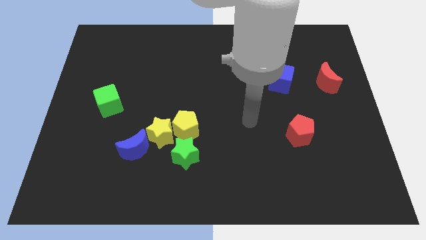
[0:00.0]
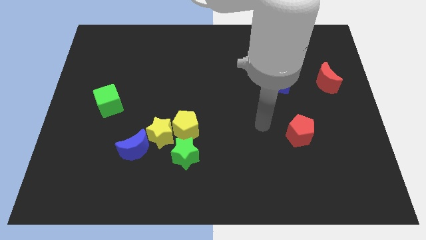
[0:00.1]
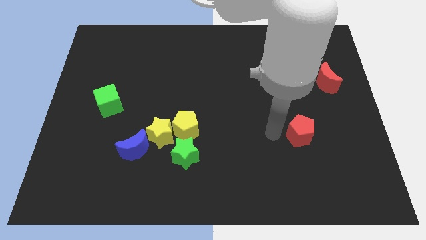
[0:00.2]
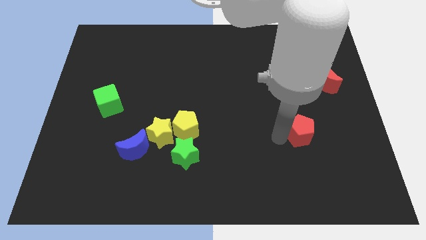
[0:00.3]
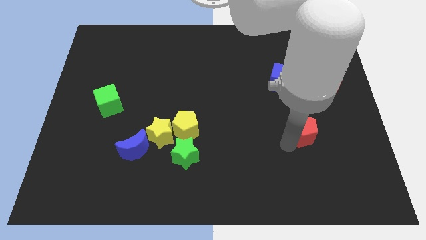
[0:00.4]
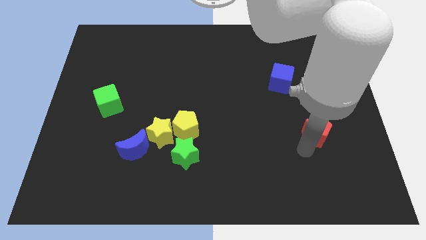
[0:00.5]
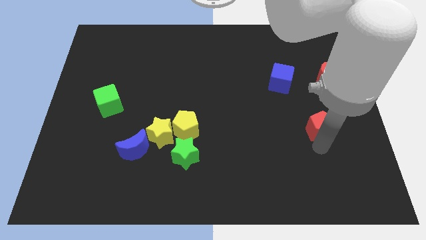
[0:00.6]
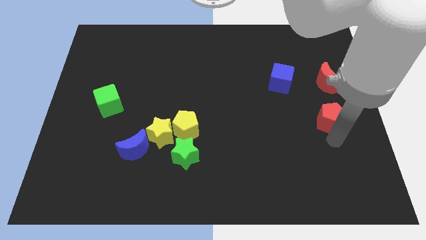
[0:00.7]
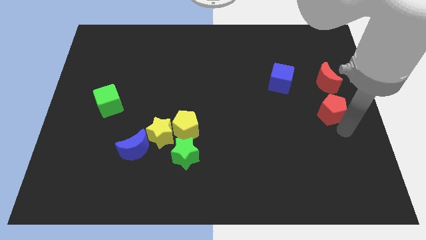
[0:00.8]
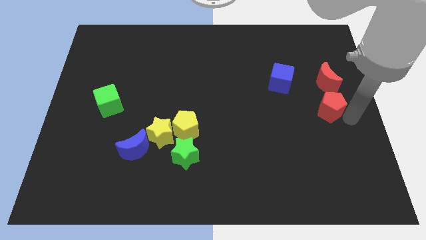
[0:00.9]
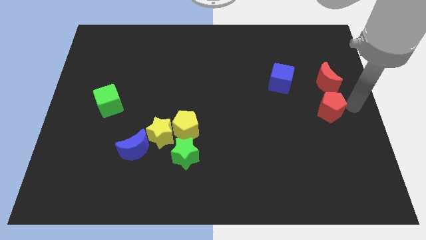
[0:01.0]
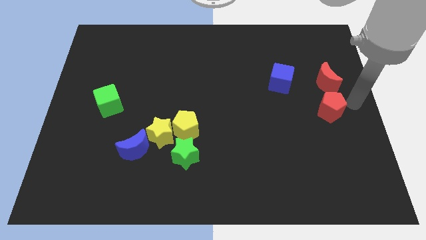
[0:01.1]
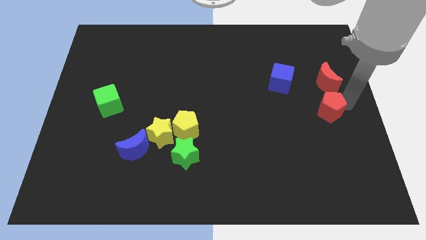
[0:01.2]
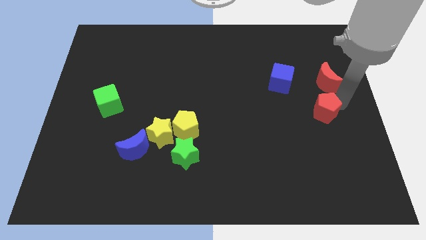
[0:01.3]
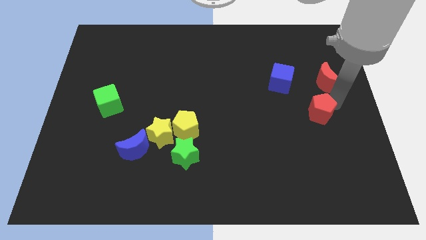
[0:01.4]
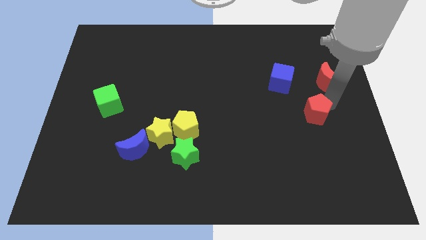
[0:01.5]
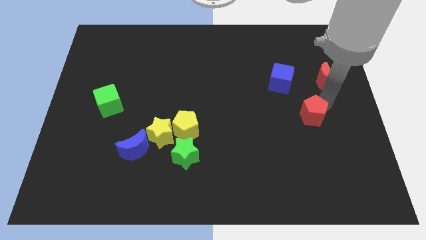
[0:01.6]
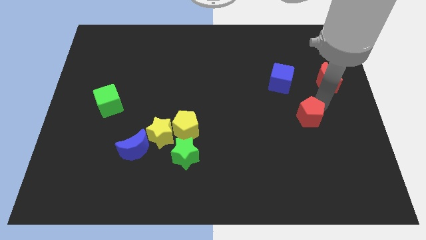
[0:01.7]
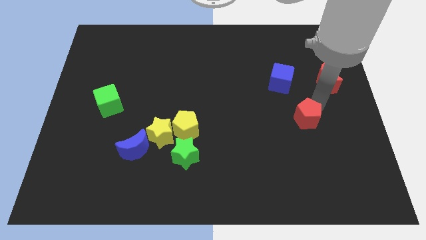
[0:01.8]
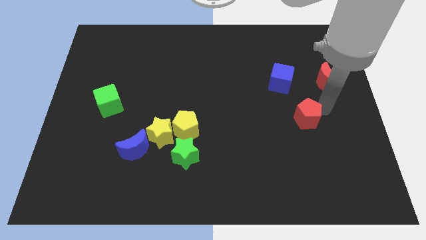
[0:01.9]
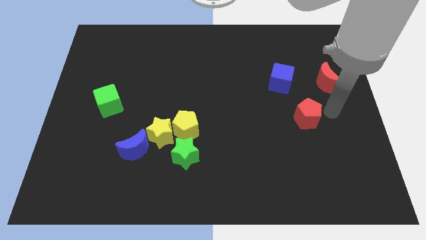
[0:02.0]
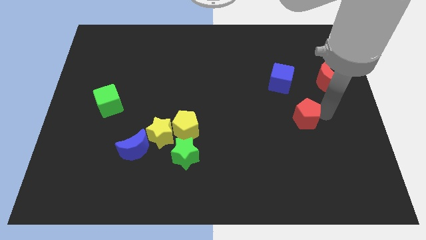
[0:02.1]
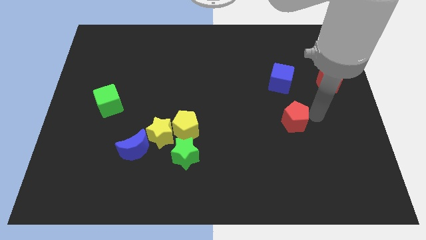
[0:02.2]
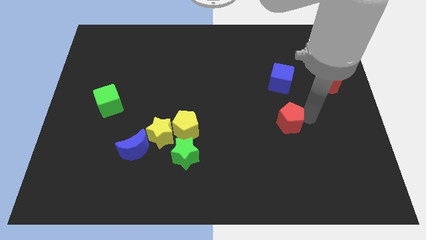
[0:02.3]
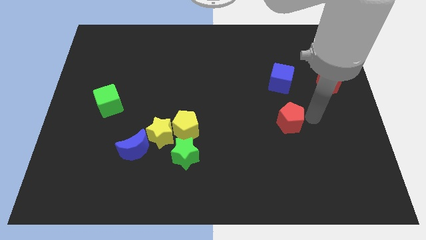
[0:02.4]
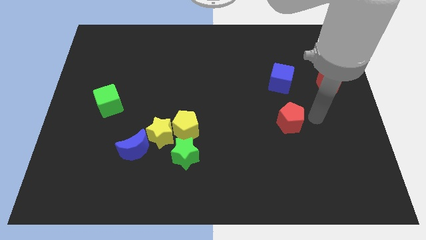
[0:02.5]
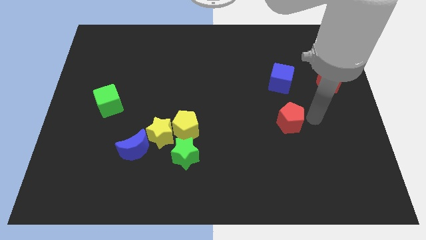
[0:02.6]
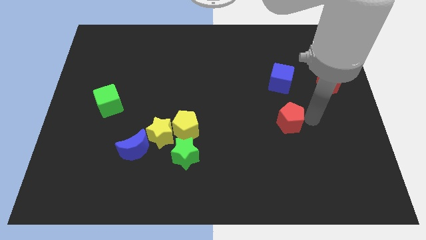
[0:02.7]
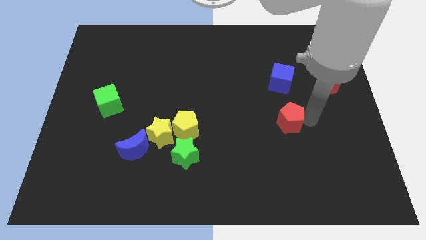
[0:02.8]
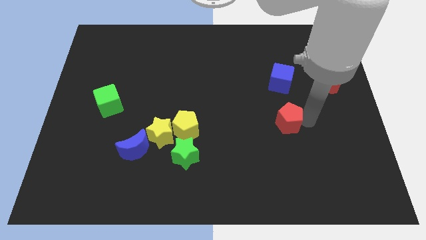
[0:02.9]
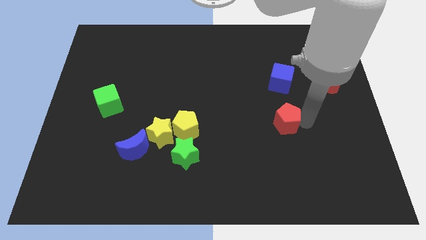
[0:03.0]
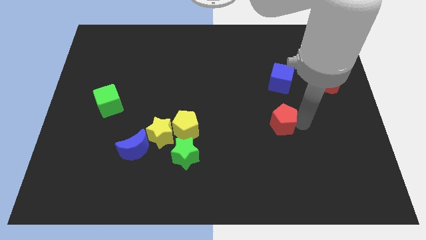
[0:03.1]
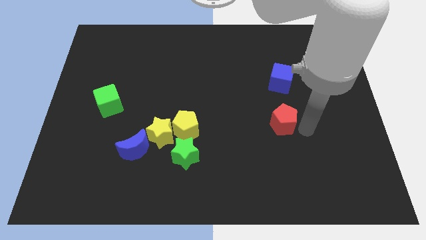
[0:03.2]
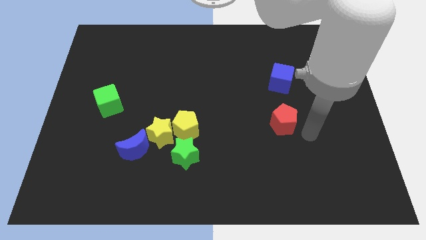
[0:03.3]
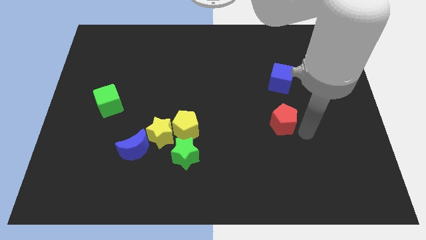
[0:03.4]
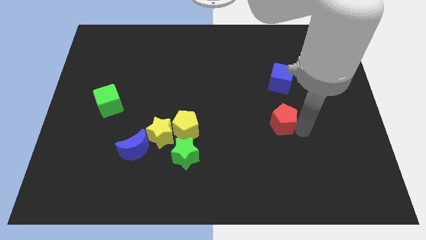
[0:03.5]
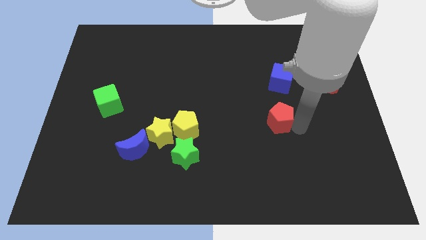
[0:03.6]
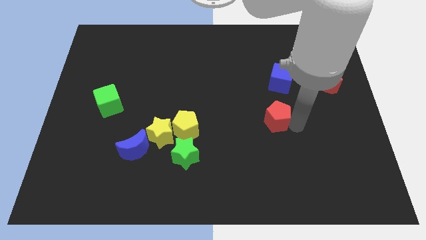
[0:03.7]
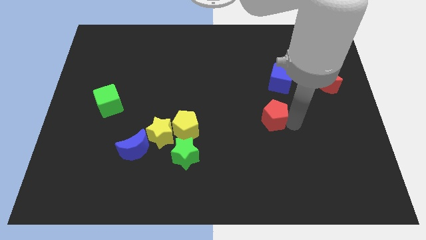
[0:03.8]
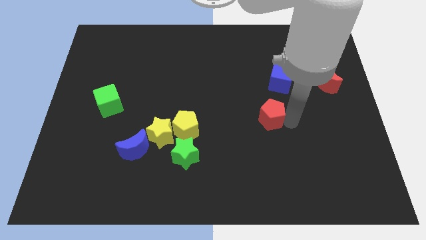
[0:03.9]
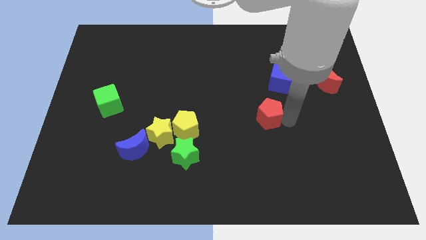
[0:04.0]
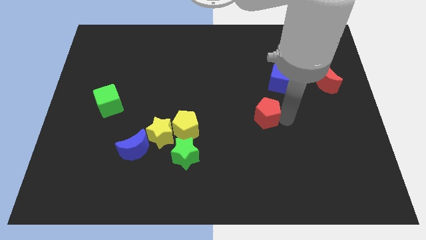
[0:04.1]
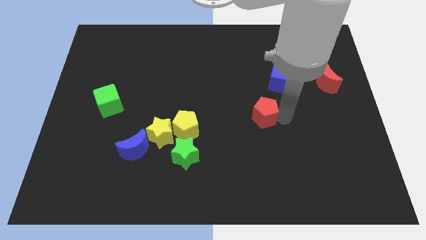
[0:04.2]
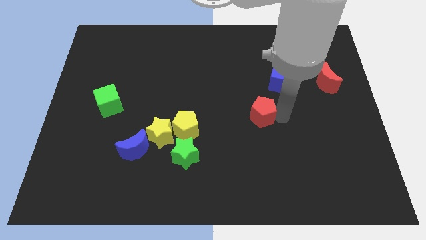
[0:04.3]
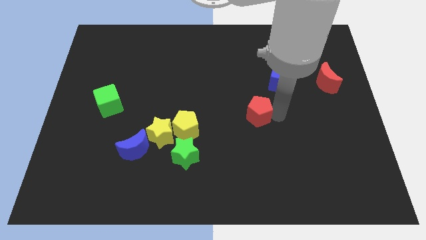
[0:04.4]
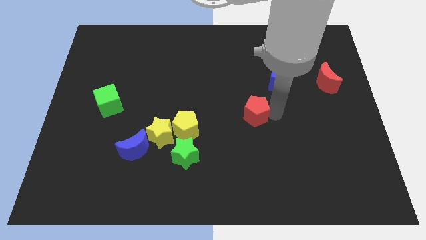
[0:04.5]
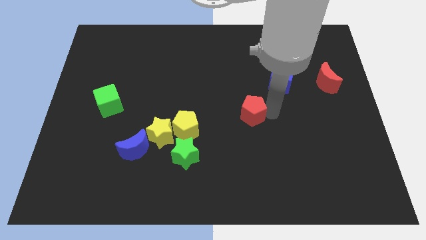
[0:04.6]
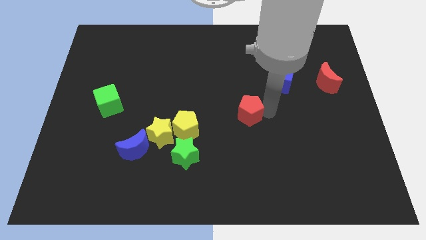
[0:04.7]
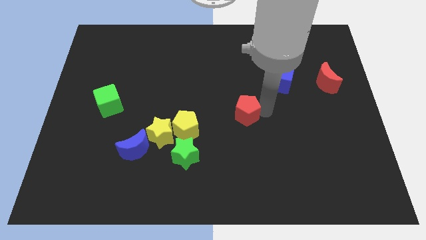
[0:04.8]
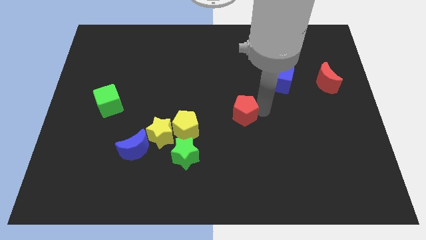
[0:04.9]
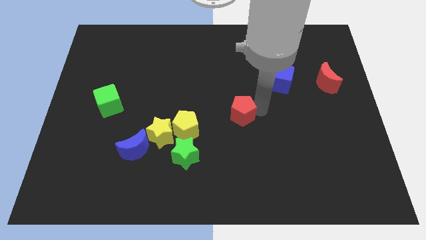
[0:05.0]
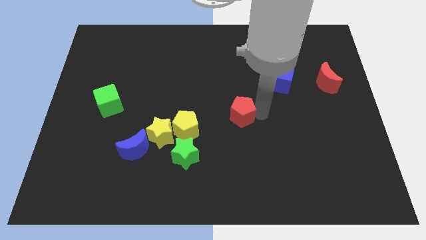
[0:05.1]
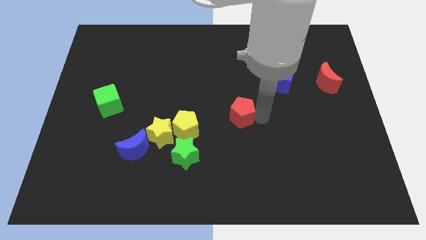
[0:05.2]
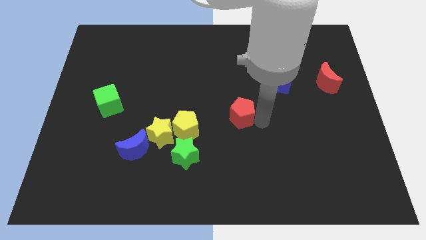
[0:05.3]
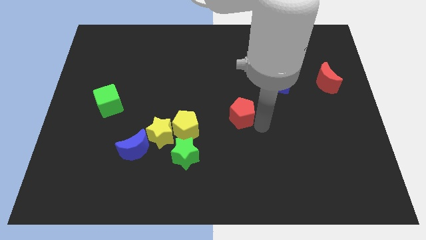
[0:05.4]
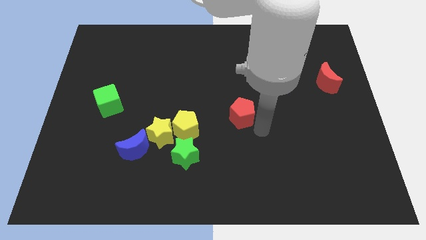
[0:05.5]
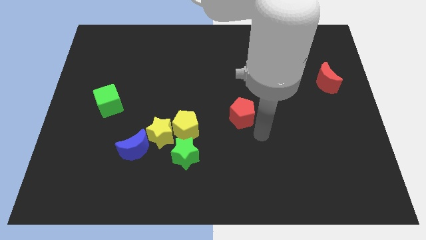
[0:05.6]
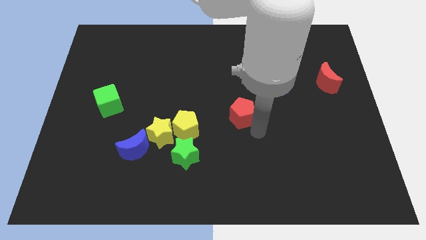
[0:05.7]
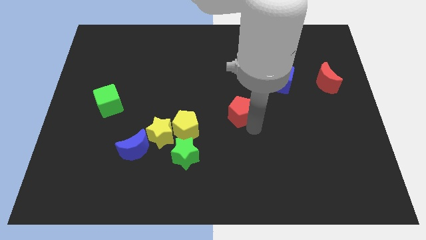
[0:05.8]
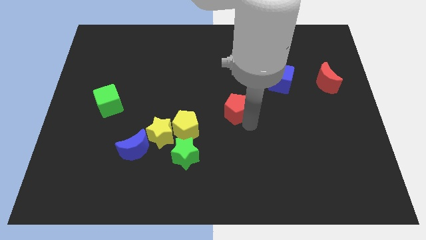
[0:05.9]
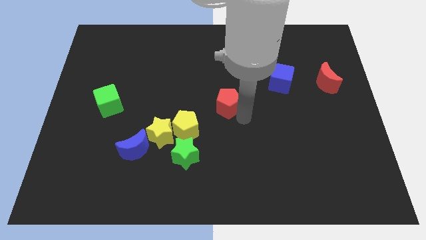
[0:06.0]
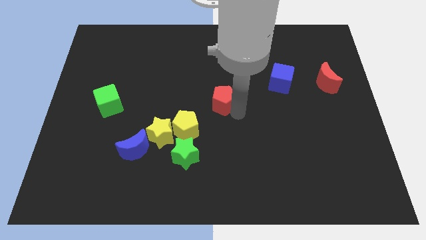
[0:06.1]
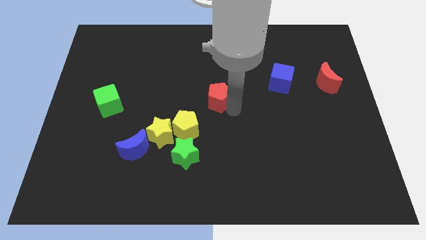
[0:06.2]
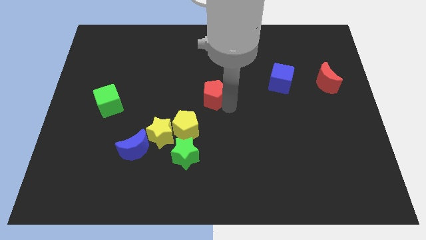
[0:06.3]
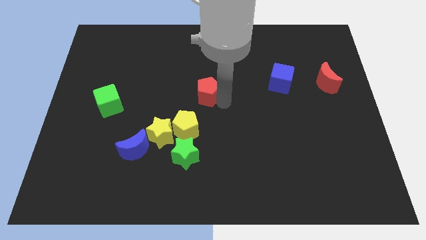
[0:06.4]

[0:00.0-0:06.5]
move the red pentagon above the yellow pentagon

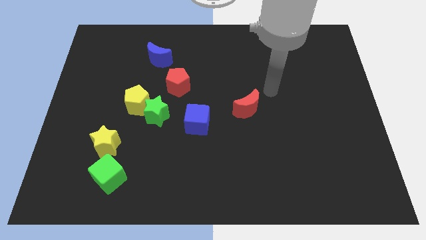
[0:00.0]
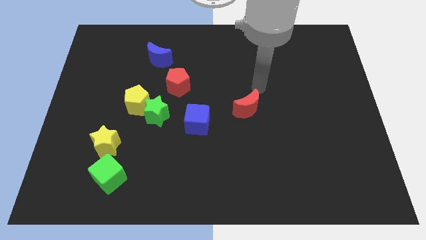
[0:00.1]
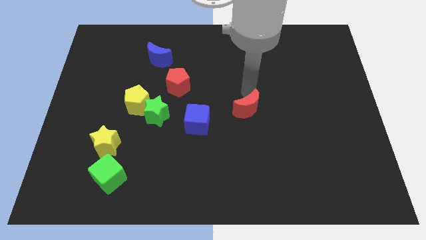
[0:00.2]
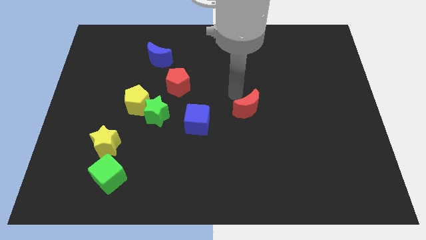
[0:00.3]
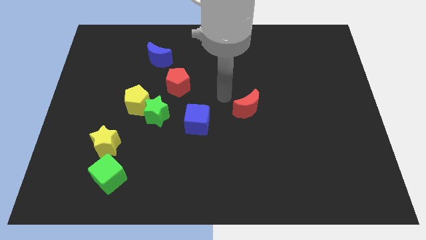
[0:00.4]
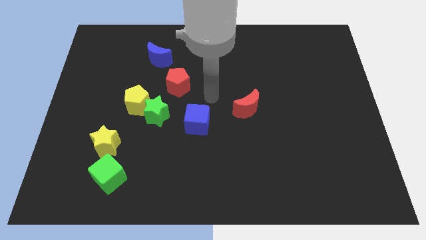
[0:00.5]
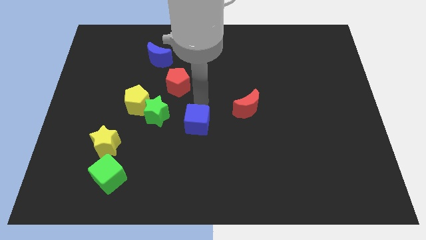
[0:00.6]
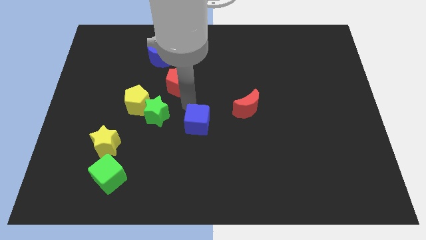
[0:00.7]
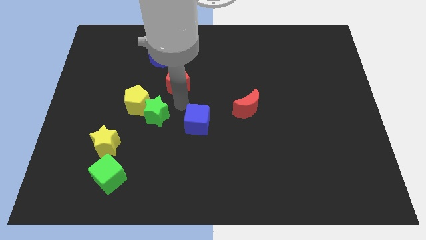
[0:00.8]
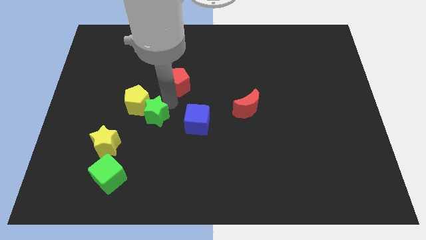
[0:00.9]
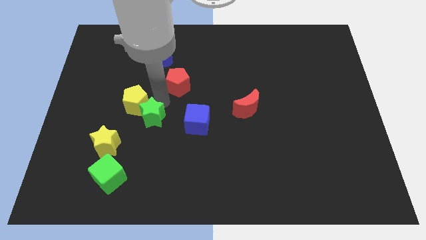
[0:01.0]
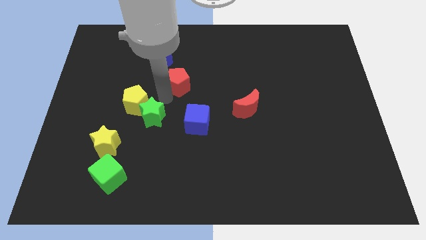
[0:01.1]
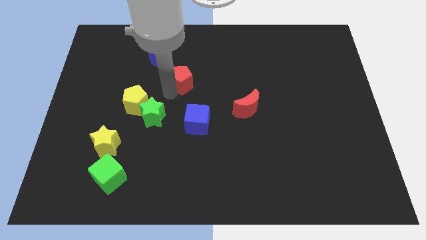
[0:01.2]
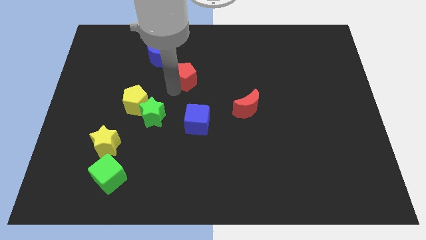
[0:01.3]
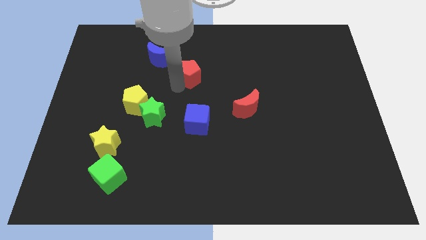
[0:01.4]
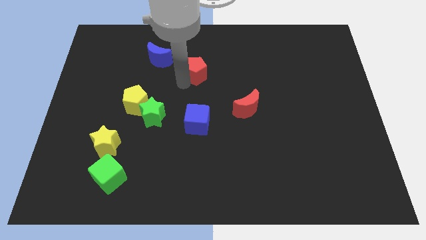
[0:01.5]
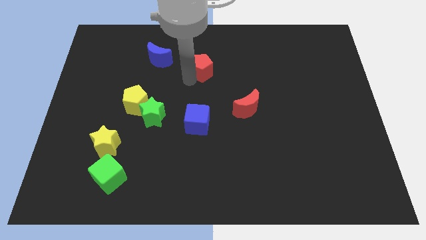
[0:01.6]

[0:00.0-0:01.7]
put the red pentagon just right of the blue moon
